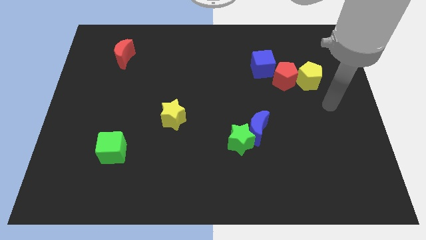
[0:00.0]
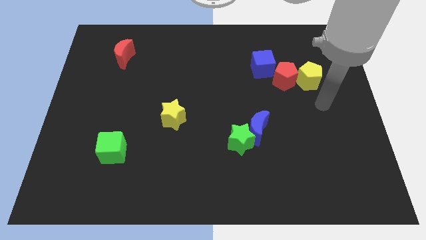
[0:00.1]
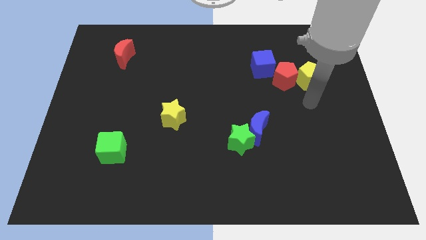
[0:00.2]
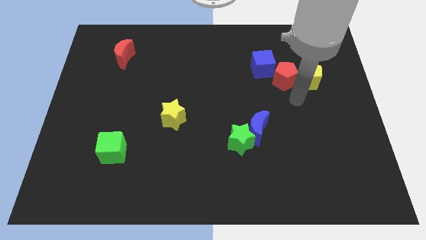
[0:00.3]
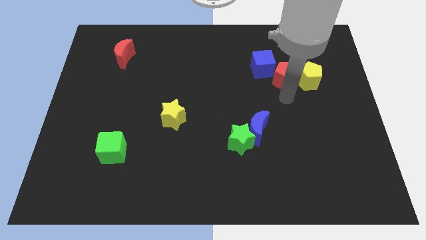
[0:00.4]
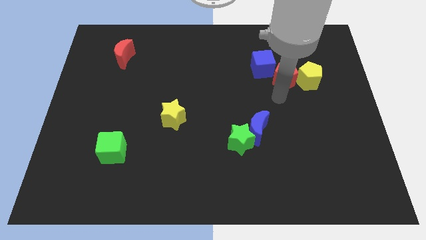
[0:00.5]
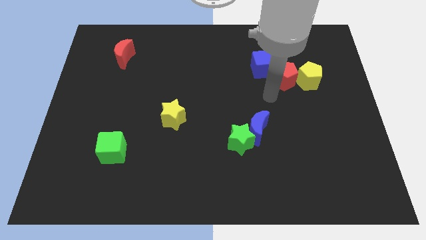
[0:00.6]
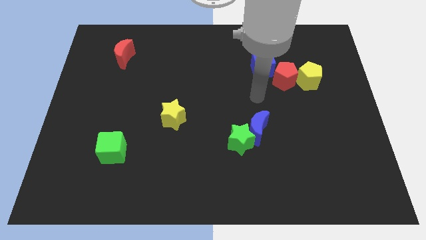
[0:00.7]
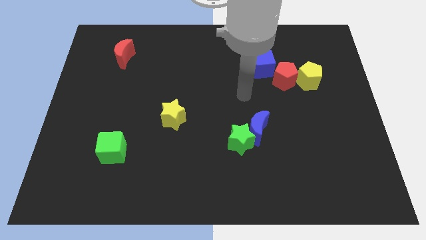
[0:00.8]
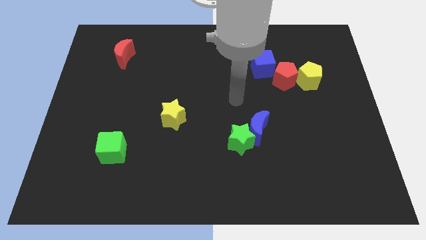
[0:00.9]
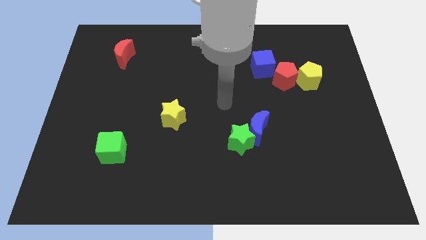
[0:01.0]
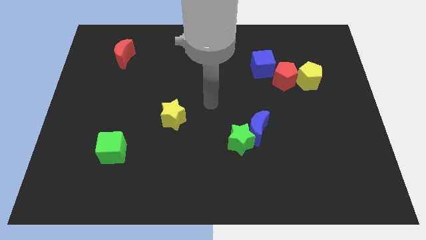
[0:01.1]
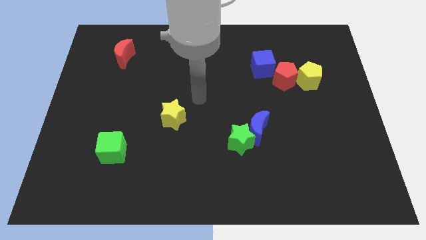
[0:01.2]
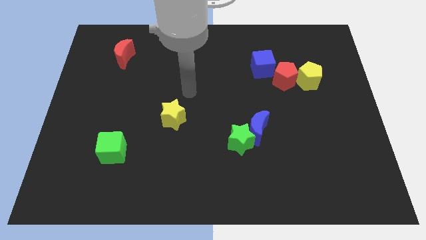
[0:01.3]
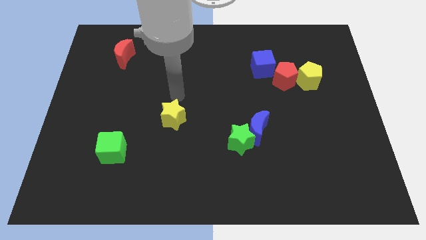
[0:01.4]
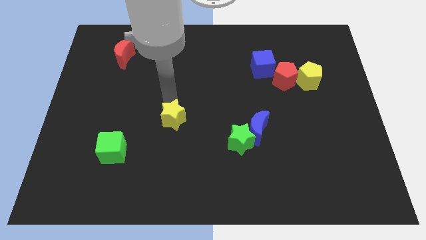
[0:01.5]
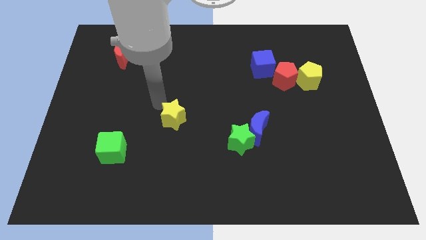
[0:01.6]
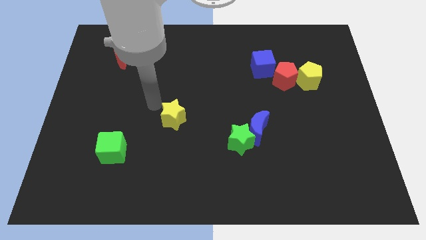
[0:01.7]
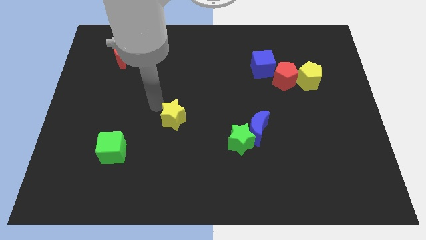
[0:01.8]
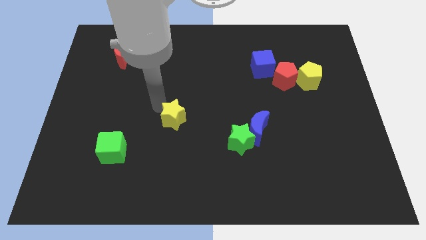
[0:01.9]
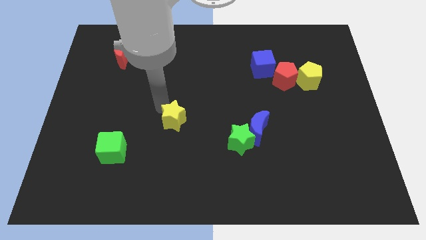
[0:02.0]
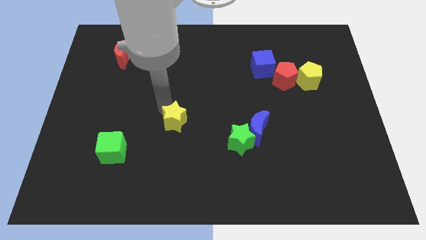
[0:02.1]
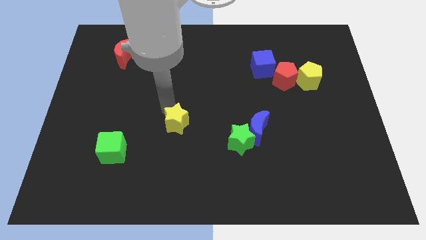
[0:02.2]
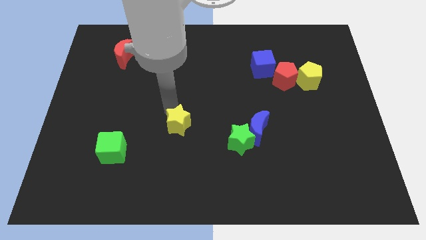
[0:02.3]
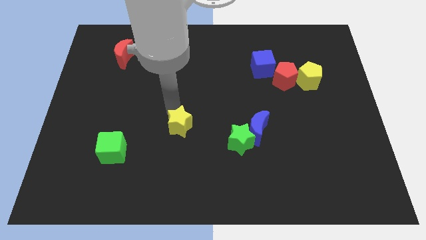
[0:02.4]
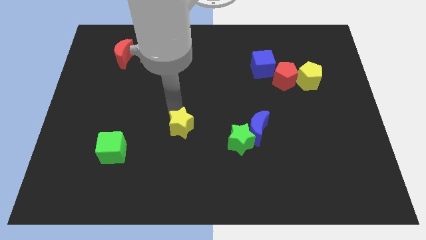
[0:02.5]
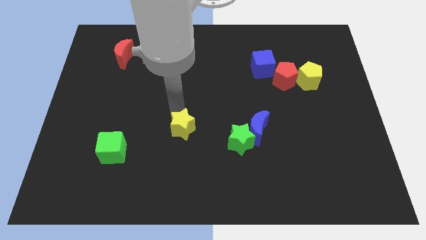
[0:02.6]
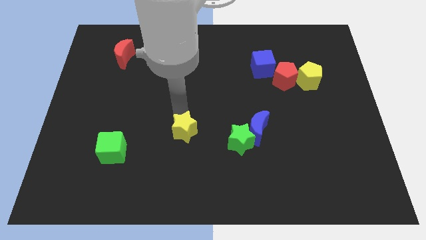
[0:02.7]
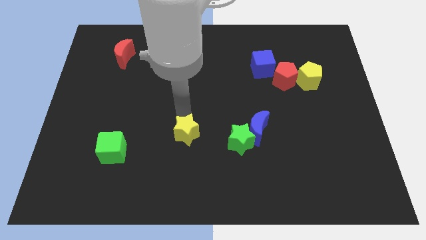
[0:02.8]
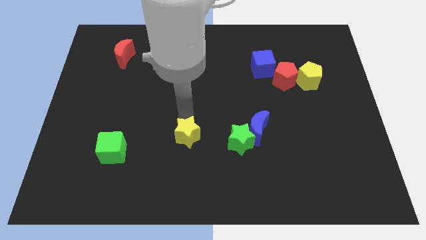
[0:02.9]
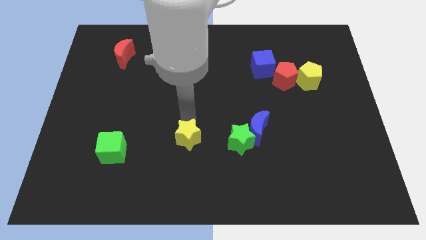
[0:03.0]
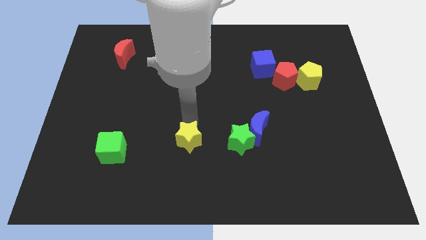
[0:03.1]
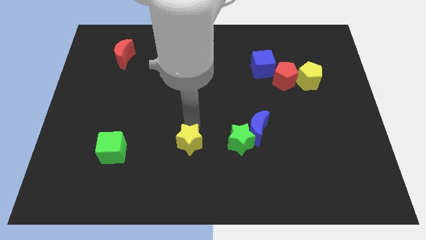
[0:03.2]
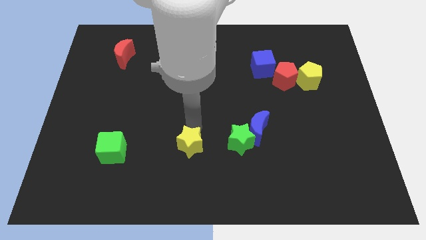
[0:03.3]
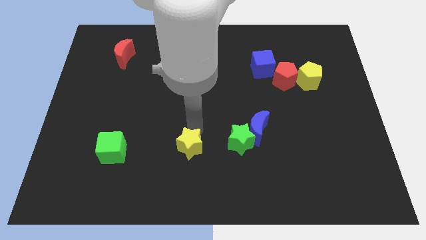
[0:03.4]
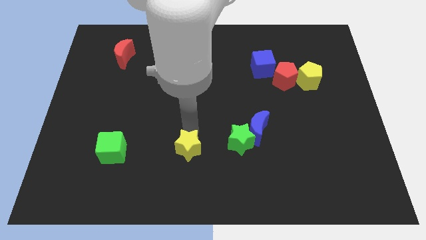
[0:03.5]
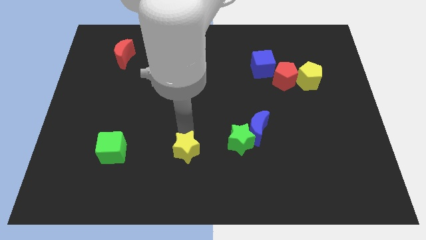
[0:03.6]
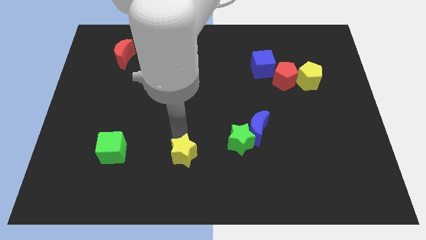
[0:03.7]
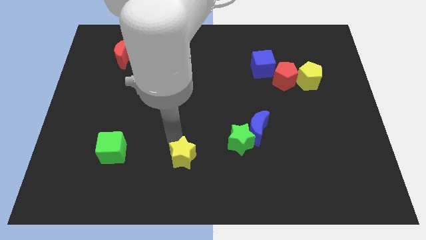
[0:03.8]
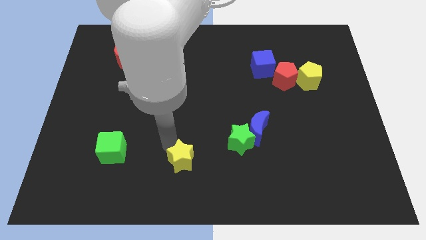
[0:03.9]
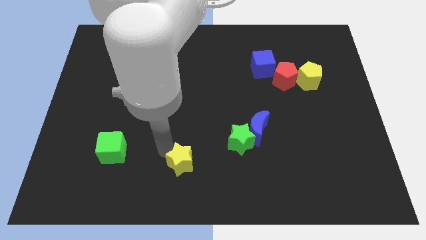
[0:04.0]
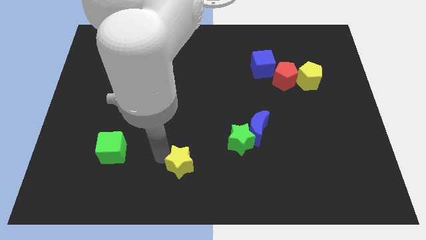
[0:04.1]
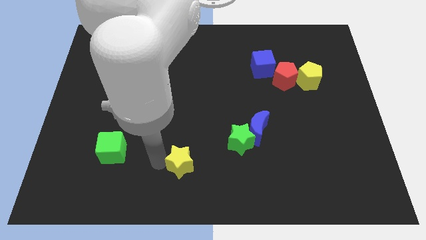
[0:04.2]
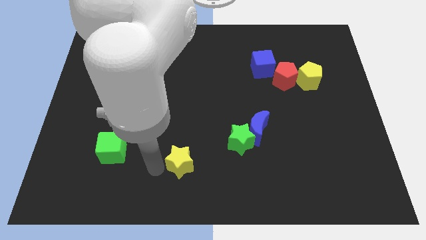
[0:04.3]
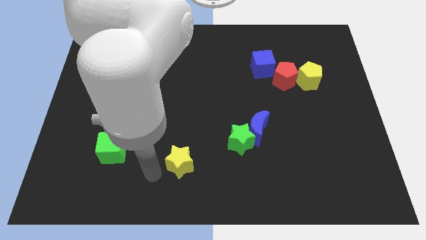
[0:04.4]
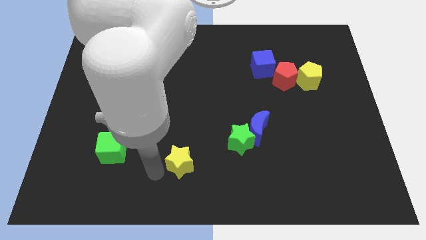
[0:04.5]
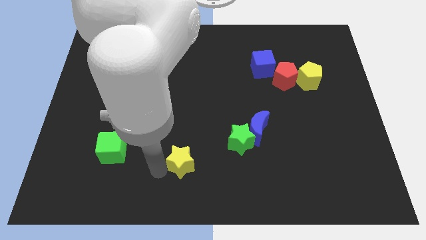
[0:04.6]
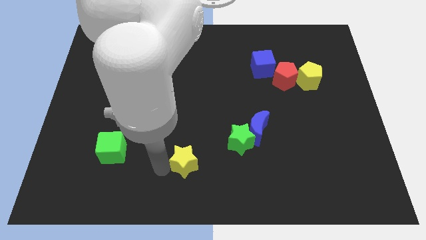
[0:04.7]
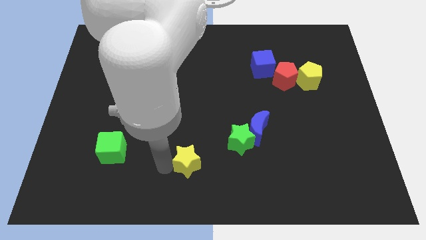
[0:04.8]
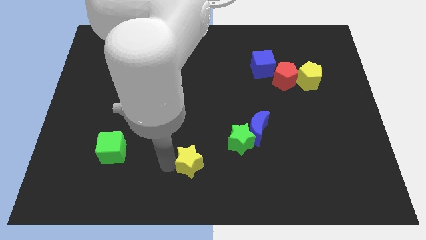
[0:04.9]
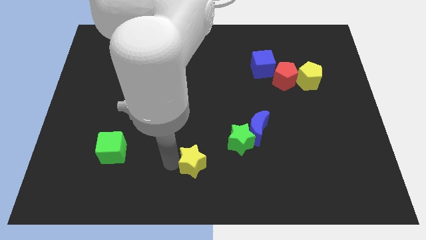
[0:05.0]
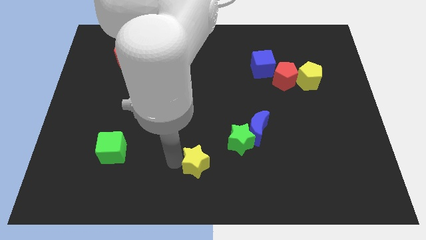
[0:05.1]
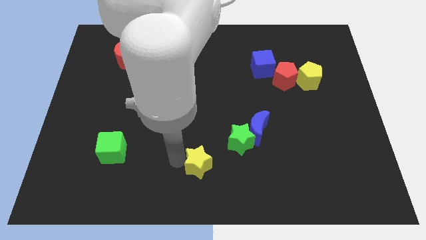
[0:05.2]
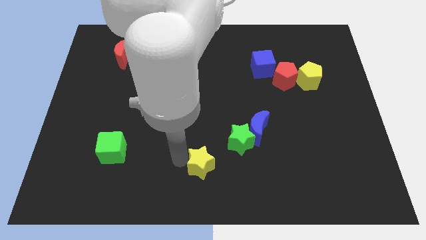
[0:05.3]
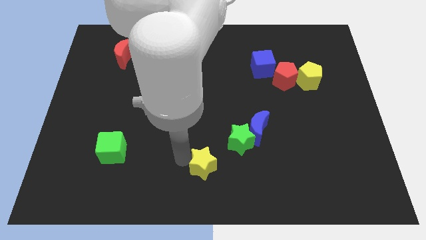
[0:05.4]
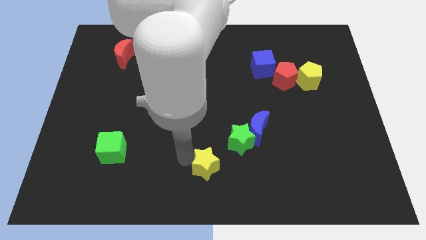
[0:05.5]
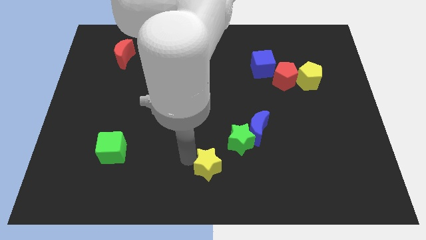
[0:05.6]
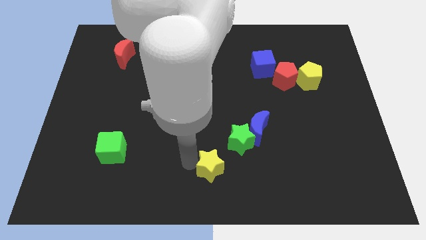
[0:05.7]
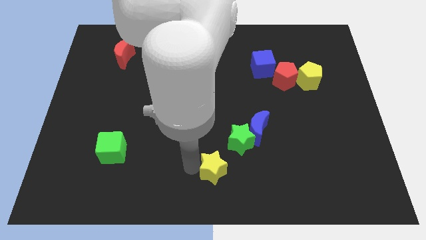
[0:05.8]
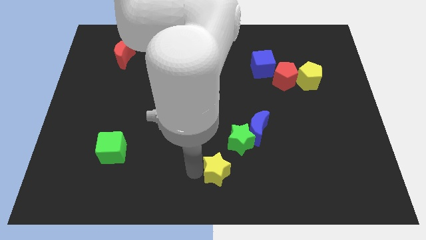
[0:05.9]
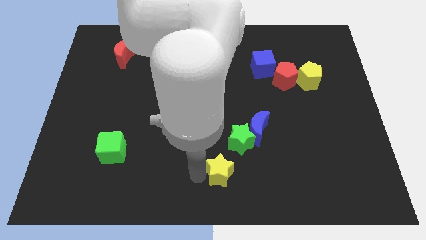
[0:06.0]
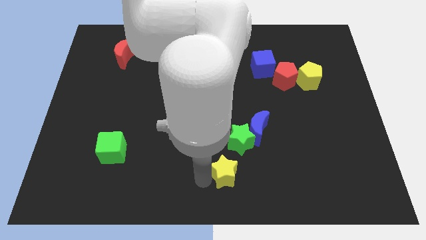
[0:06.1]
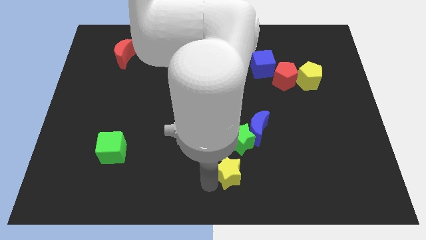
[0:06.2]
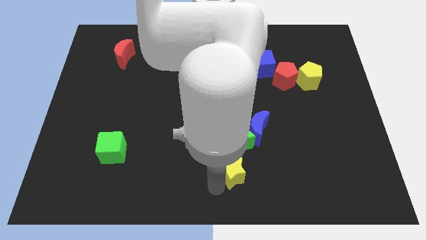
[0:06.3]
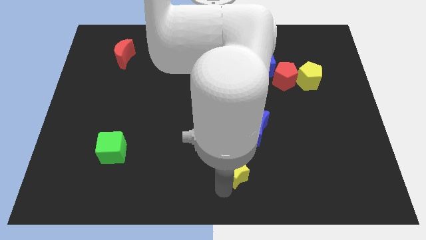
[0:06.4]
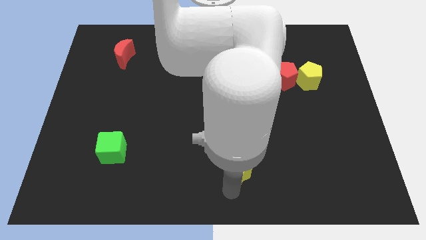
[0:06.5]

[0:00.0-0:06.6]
push the yellow star below the blue moon
